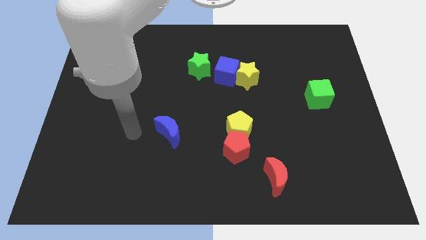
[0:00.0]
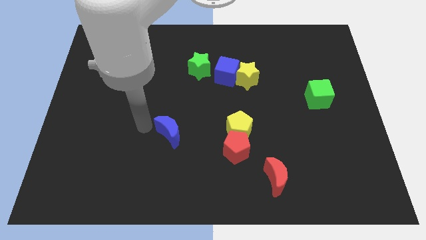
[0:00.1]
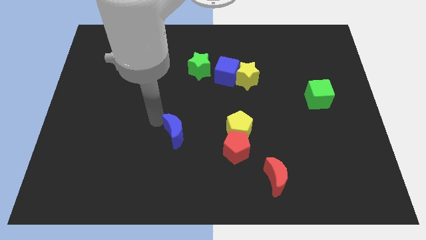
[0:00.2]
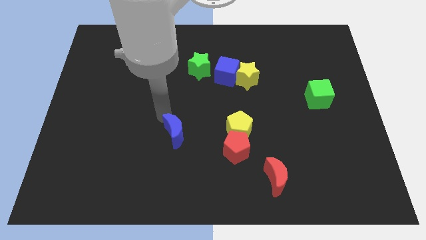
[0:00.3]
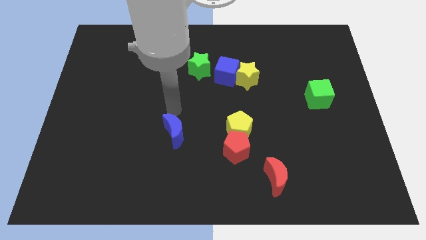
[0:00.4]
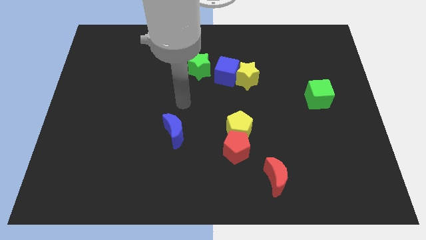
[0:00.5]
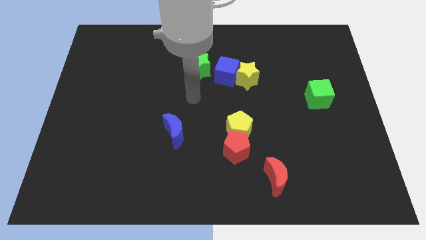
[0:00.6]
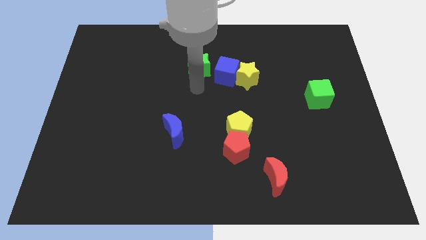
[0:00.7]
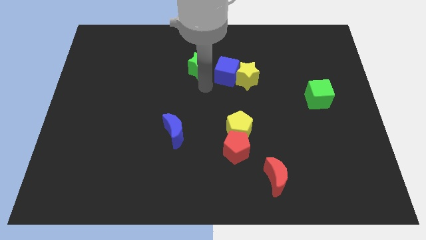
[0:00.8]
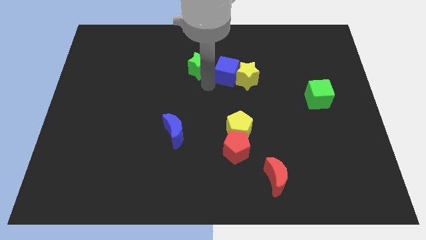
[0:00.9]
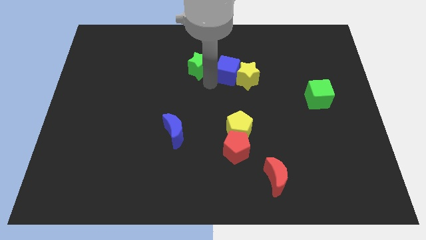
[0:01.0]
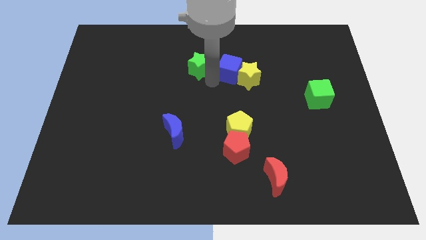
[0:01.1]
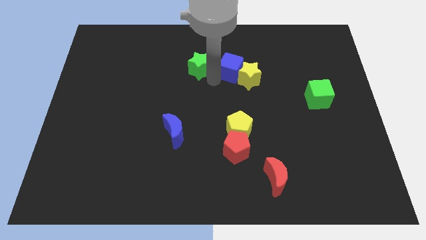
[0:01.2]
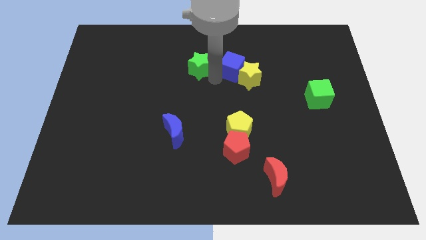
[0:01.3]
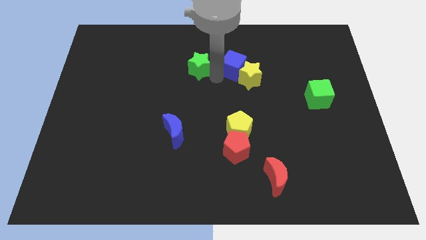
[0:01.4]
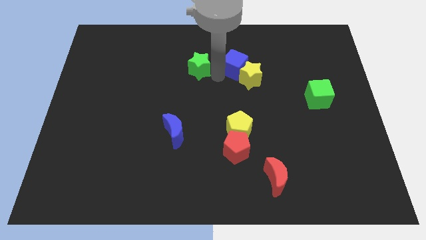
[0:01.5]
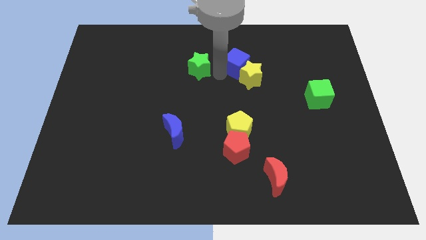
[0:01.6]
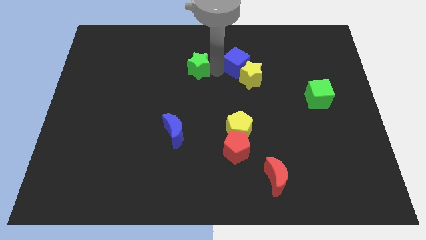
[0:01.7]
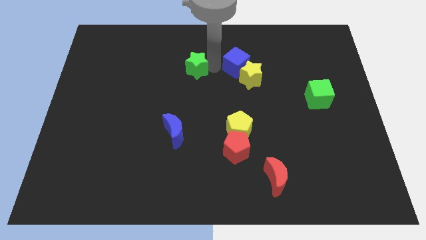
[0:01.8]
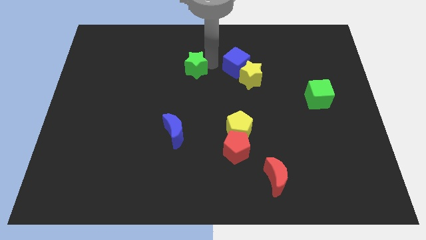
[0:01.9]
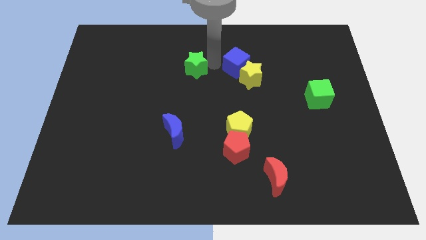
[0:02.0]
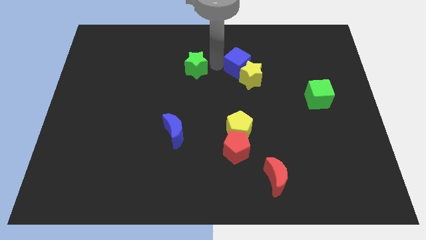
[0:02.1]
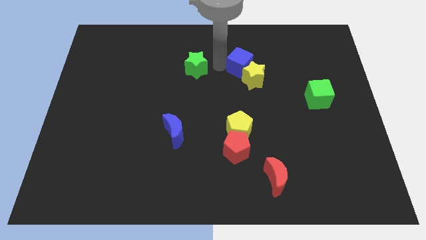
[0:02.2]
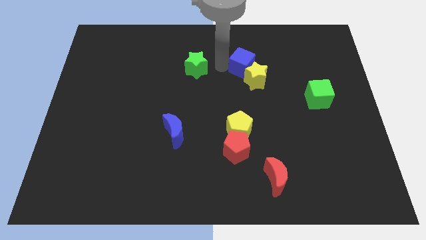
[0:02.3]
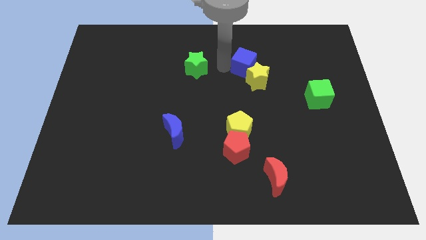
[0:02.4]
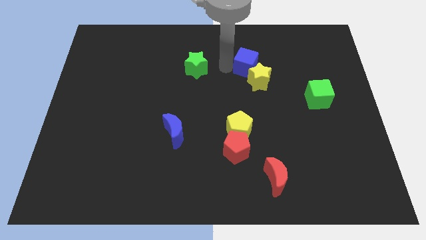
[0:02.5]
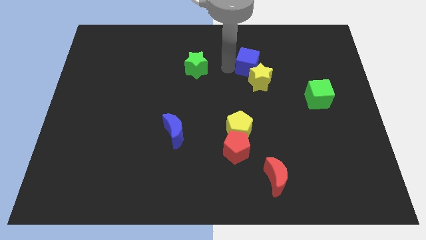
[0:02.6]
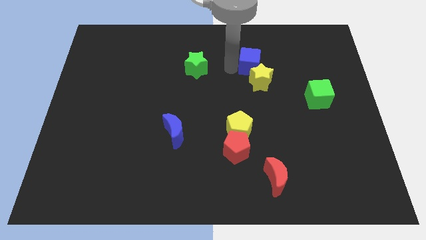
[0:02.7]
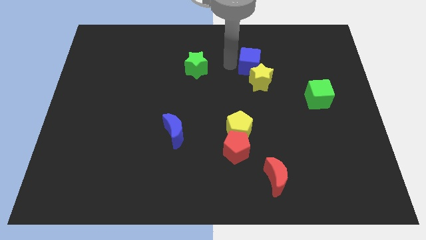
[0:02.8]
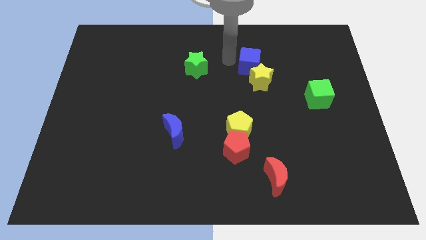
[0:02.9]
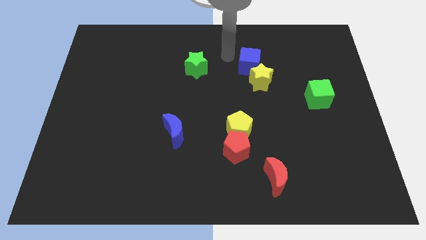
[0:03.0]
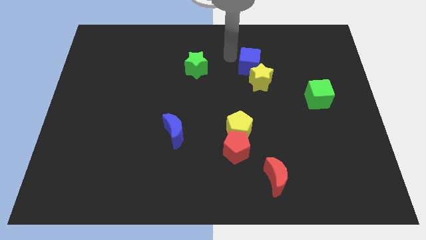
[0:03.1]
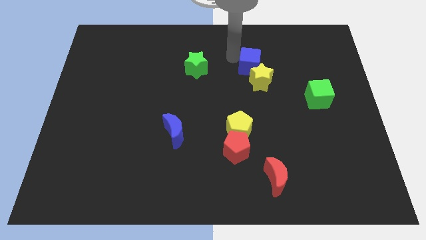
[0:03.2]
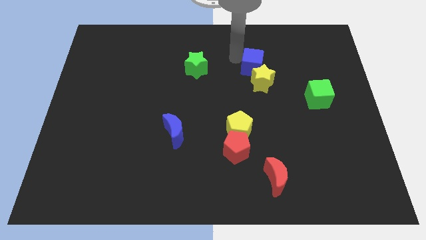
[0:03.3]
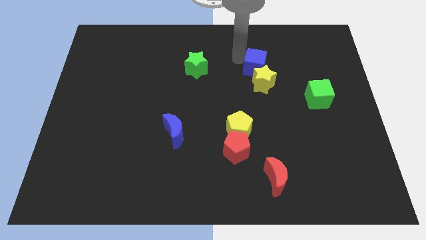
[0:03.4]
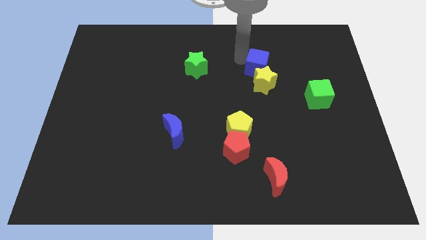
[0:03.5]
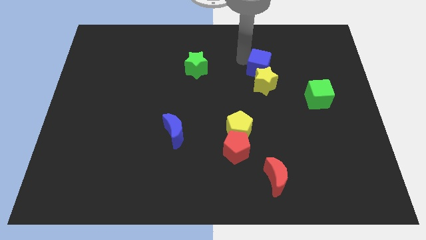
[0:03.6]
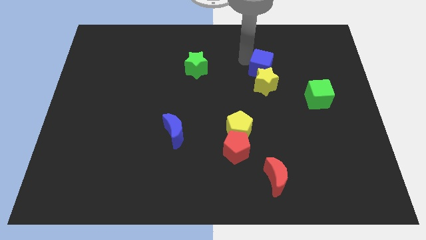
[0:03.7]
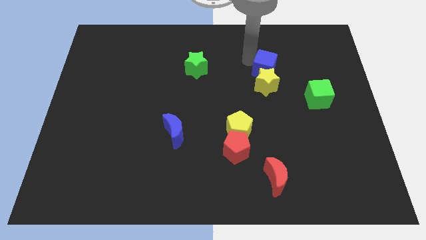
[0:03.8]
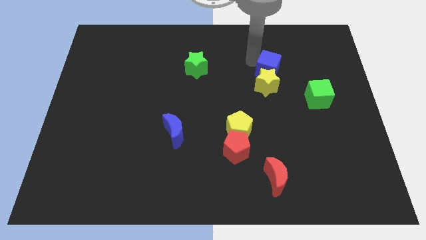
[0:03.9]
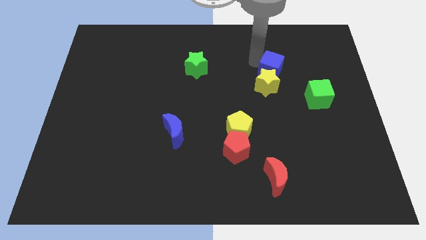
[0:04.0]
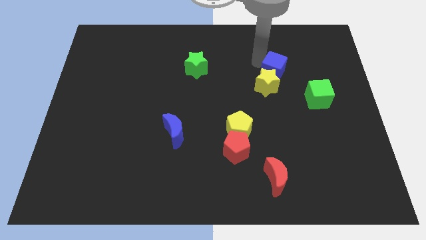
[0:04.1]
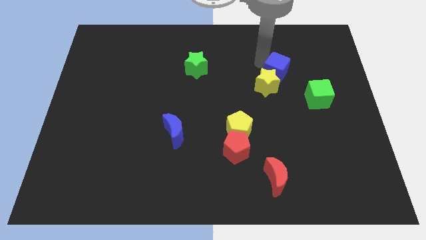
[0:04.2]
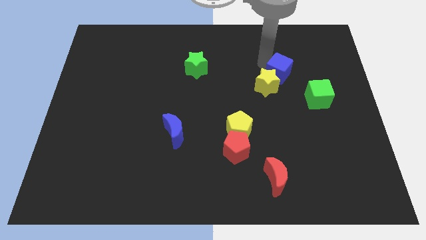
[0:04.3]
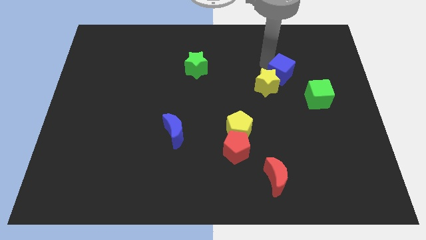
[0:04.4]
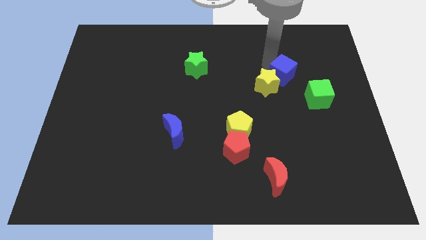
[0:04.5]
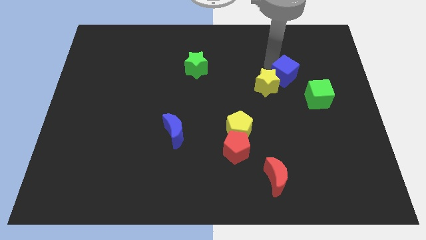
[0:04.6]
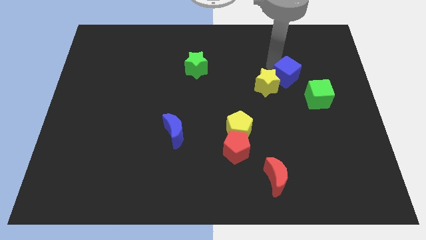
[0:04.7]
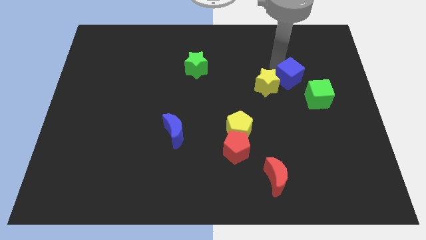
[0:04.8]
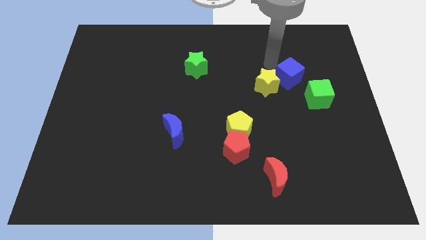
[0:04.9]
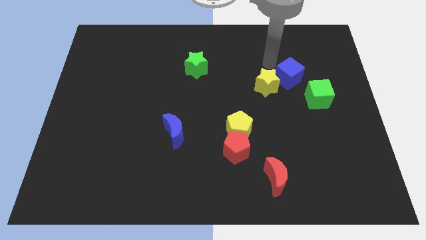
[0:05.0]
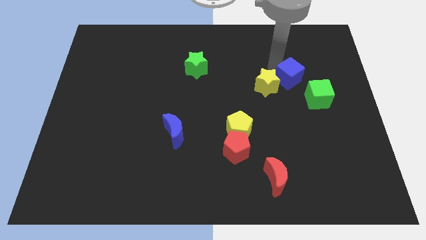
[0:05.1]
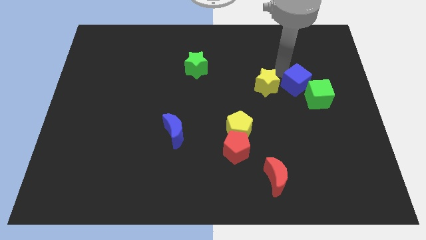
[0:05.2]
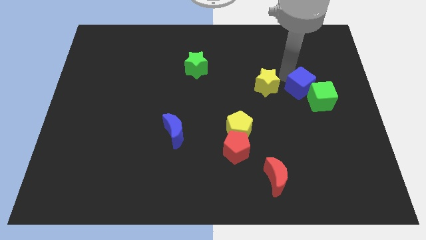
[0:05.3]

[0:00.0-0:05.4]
move the blue cube next to the green cube

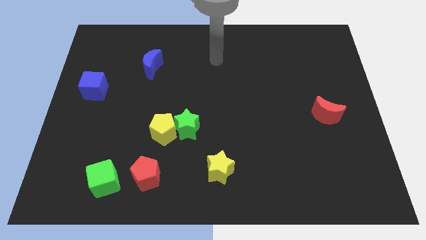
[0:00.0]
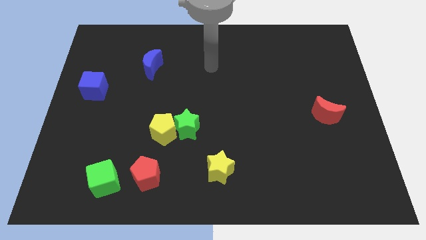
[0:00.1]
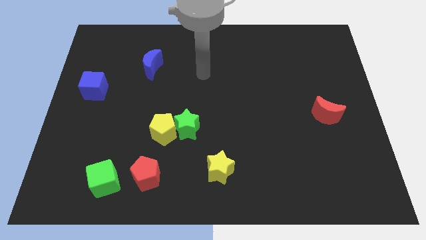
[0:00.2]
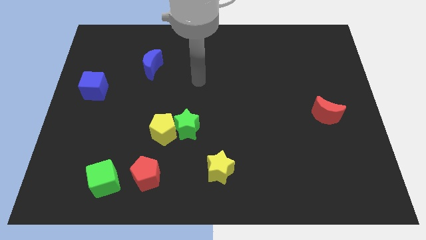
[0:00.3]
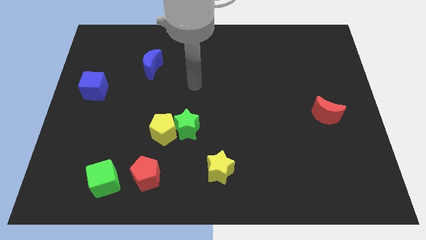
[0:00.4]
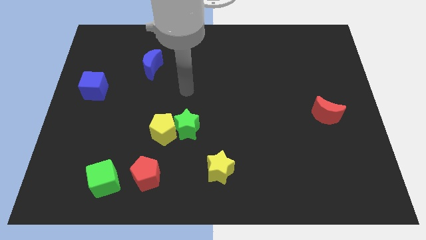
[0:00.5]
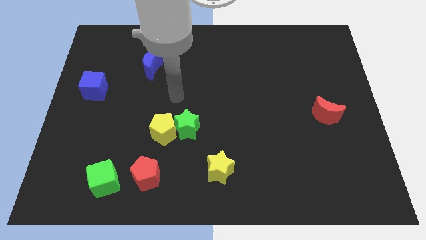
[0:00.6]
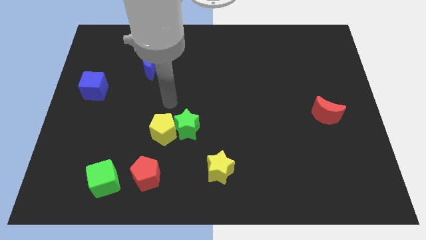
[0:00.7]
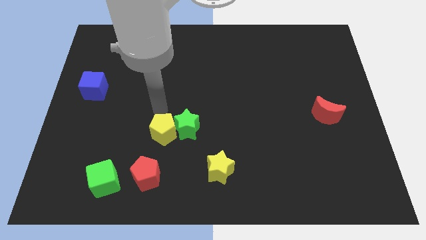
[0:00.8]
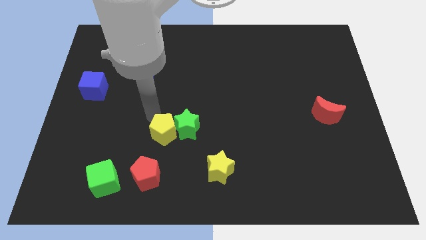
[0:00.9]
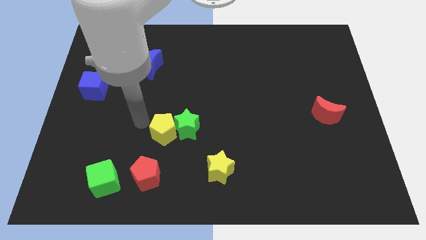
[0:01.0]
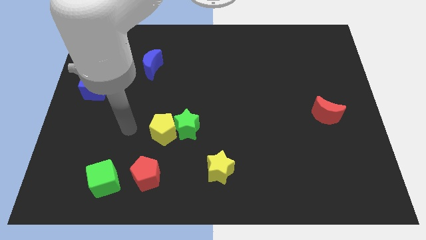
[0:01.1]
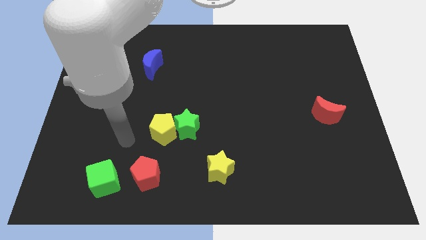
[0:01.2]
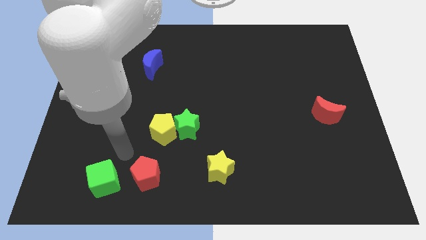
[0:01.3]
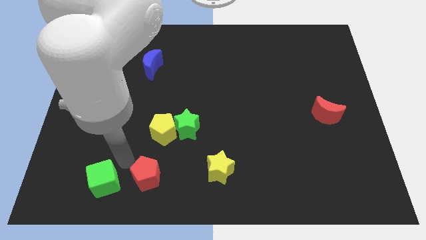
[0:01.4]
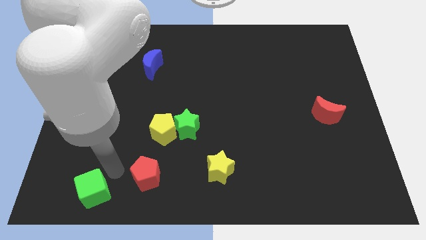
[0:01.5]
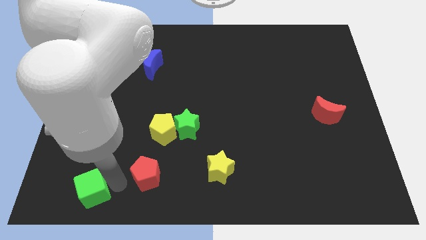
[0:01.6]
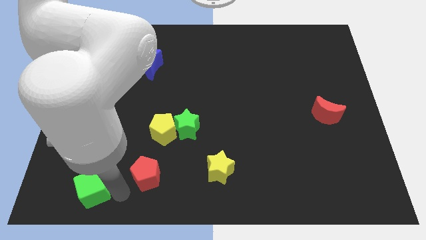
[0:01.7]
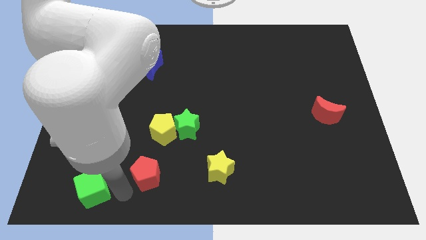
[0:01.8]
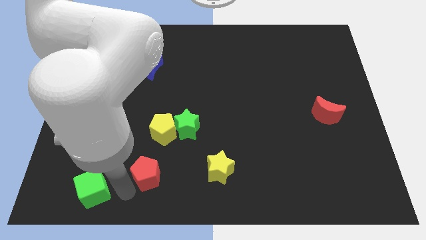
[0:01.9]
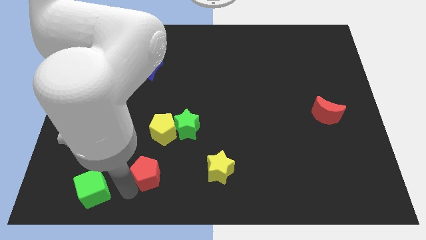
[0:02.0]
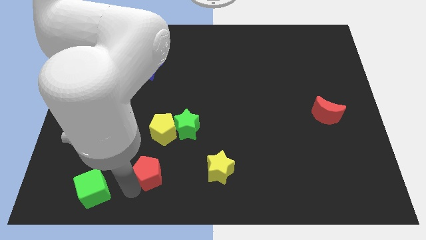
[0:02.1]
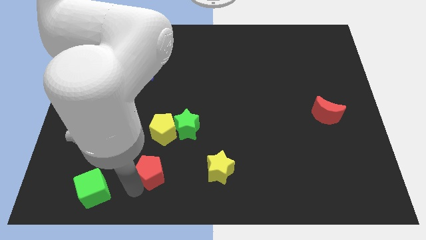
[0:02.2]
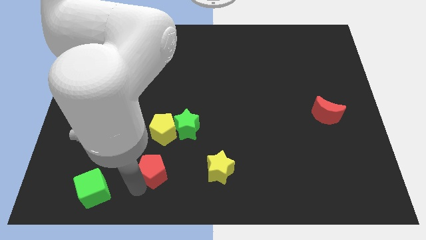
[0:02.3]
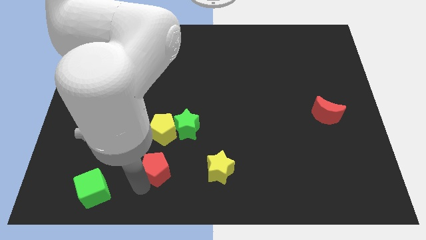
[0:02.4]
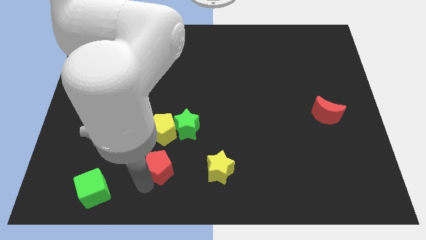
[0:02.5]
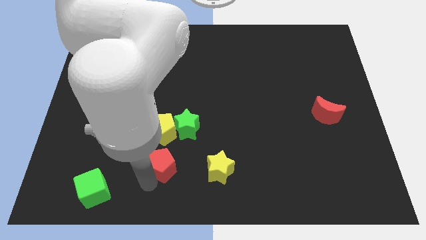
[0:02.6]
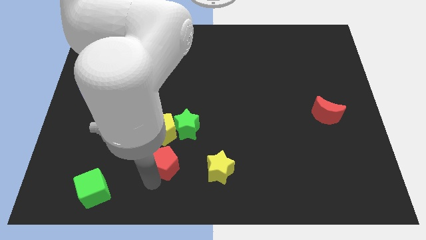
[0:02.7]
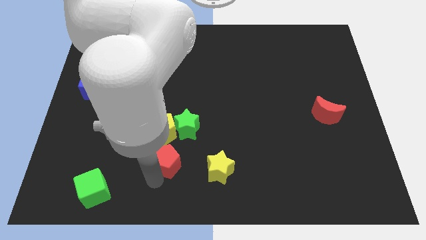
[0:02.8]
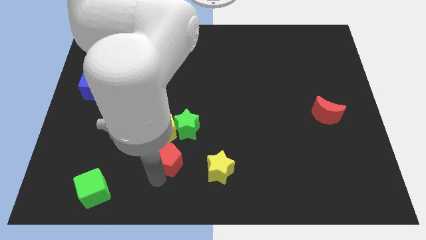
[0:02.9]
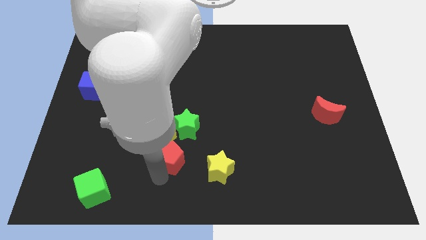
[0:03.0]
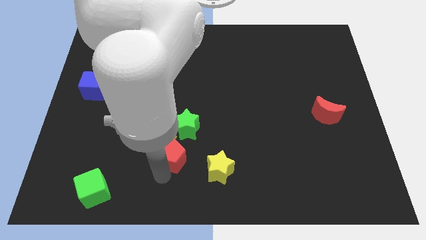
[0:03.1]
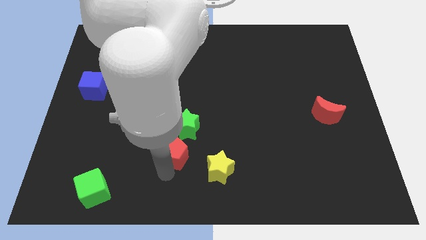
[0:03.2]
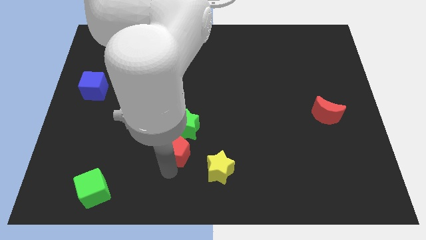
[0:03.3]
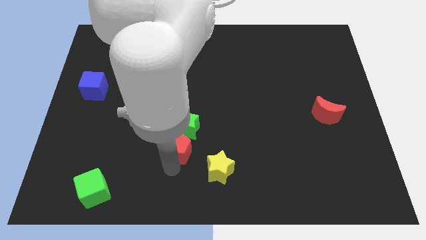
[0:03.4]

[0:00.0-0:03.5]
slide the red pentagon towards the green star
